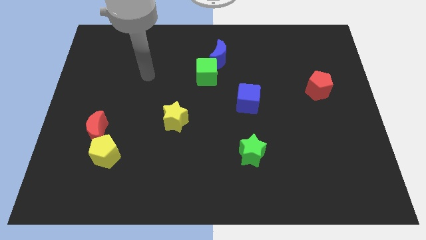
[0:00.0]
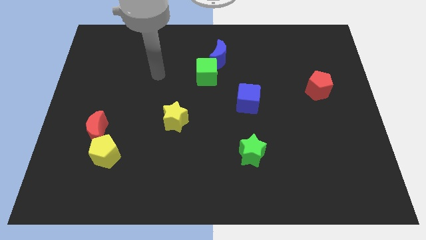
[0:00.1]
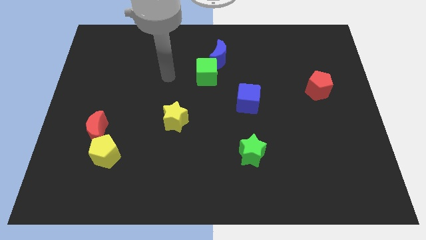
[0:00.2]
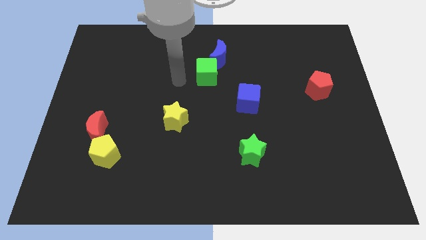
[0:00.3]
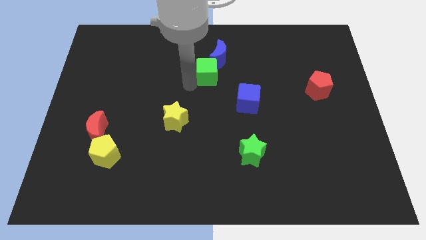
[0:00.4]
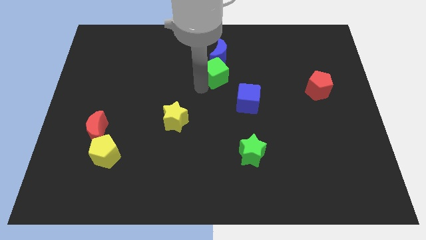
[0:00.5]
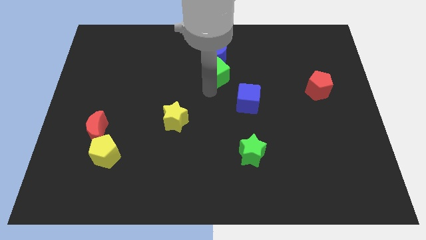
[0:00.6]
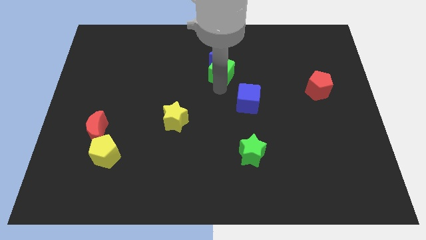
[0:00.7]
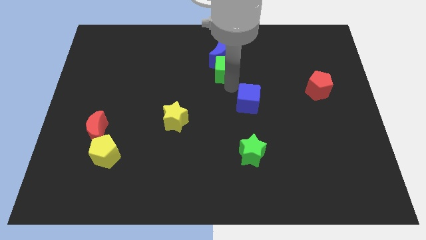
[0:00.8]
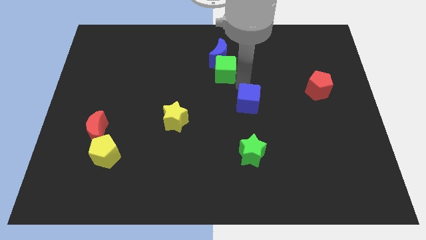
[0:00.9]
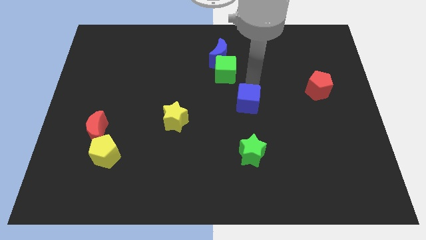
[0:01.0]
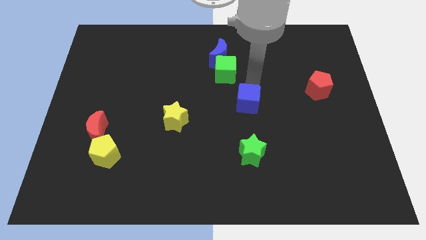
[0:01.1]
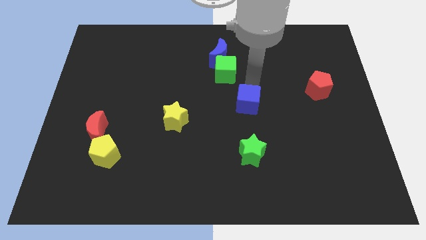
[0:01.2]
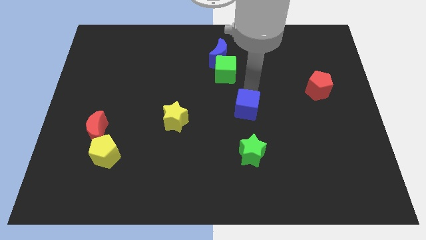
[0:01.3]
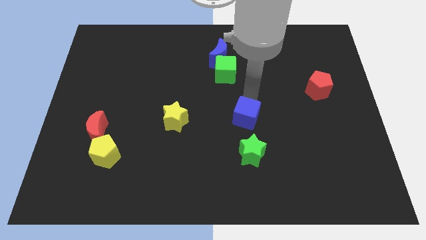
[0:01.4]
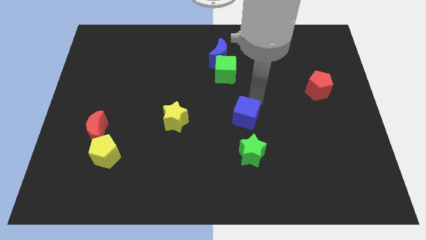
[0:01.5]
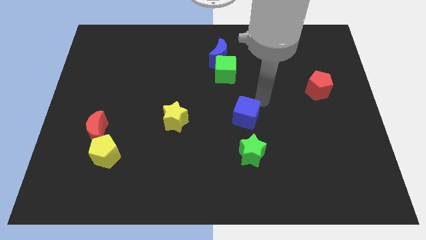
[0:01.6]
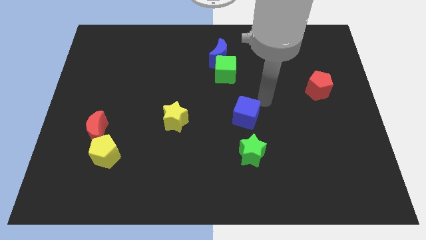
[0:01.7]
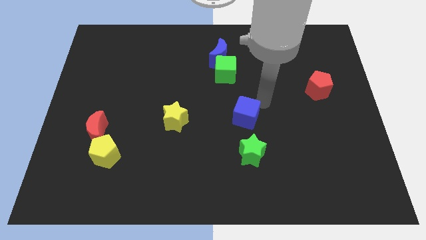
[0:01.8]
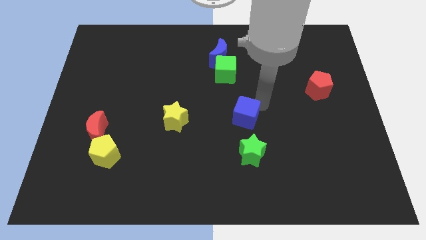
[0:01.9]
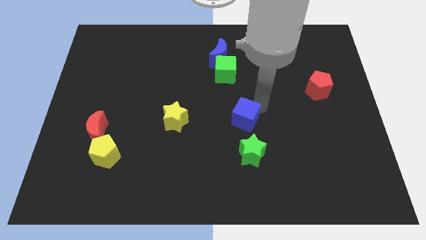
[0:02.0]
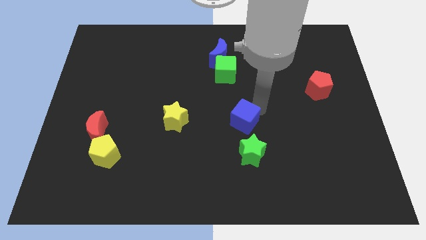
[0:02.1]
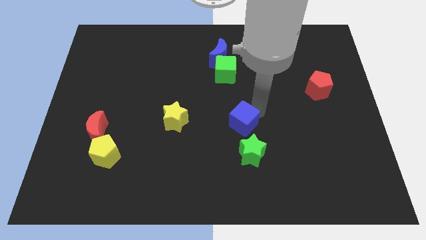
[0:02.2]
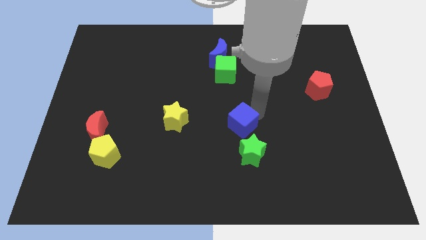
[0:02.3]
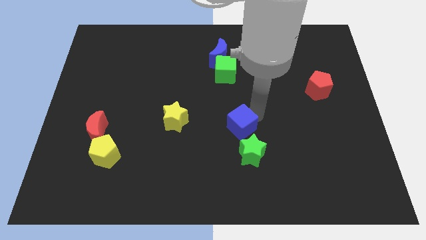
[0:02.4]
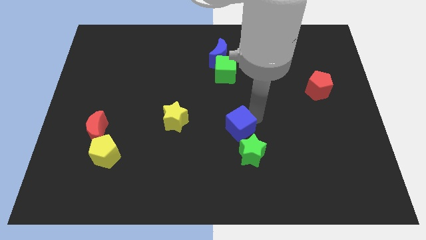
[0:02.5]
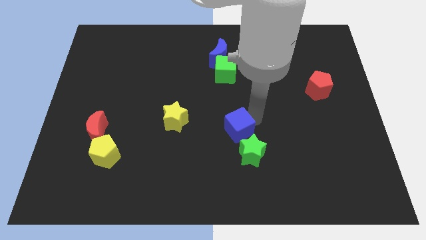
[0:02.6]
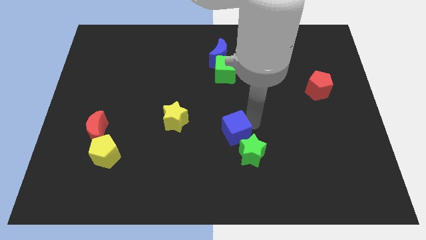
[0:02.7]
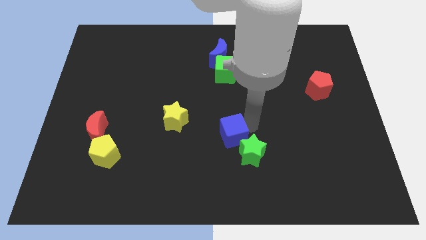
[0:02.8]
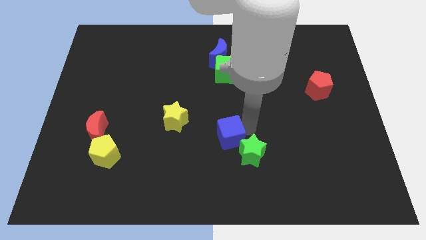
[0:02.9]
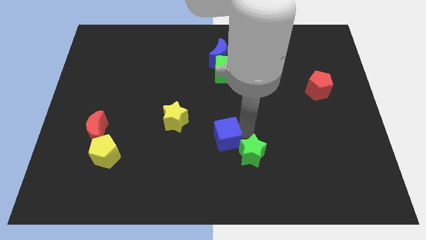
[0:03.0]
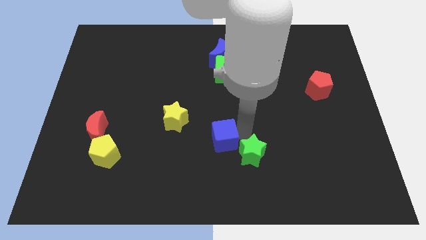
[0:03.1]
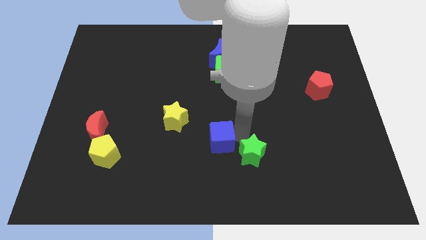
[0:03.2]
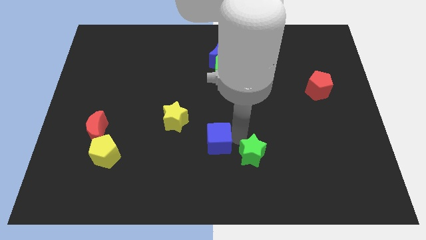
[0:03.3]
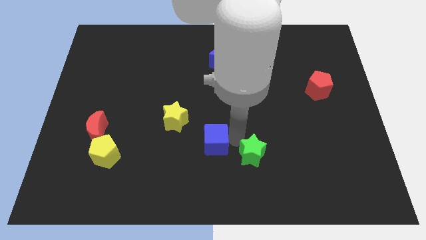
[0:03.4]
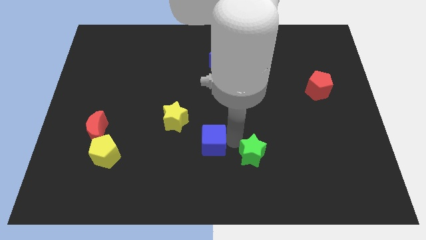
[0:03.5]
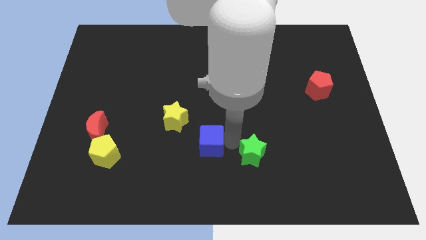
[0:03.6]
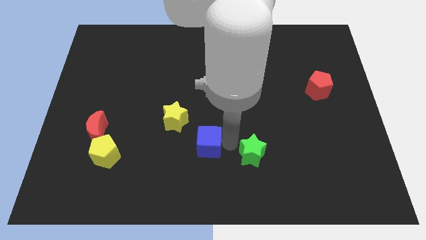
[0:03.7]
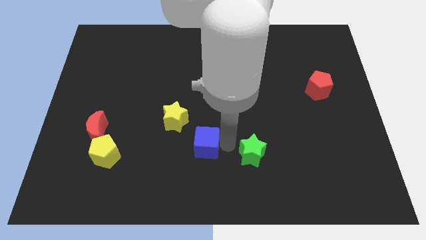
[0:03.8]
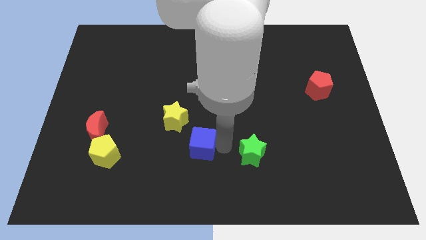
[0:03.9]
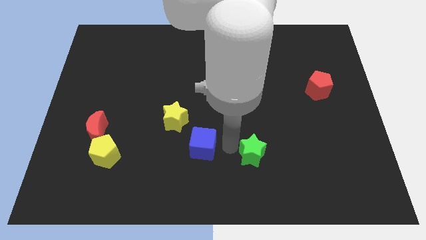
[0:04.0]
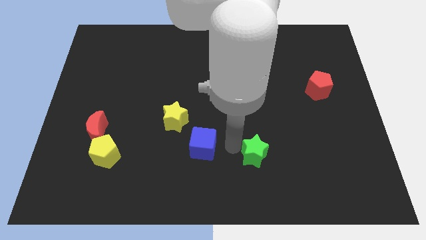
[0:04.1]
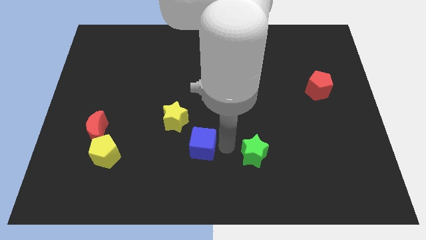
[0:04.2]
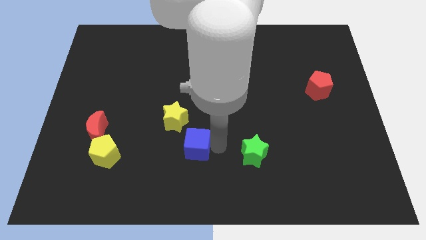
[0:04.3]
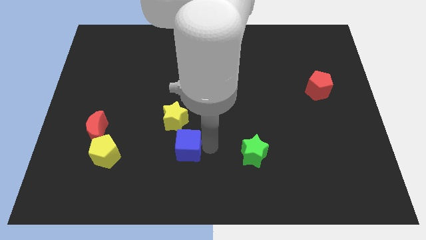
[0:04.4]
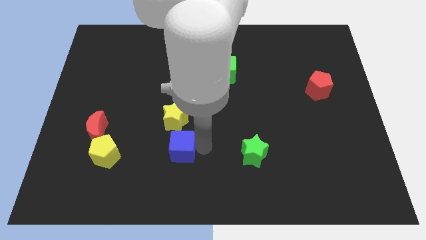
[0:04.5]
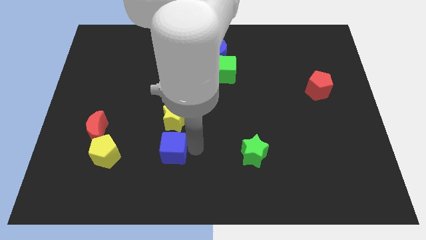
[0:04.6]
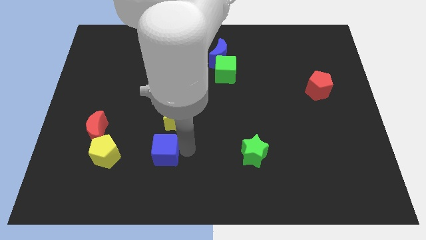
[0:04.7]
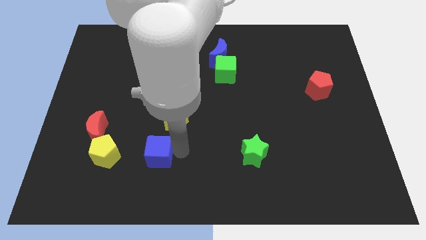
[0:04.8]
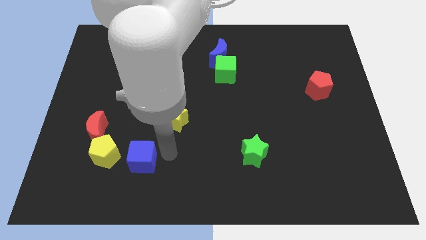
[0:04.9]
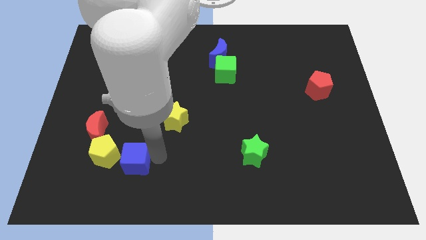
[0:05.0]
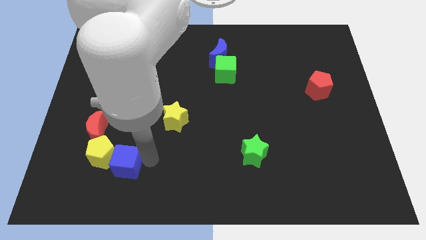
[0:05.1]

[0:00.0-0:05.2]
slide the blue cube close to the yellow pentagon

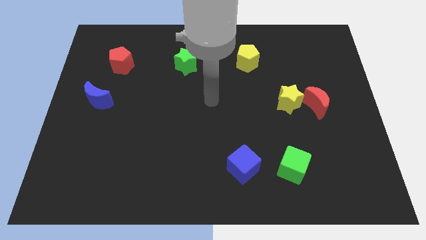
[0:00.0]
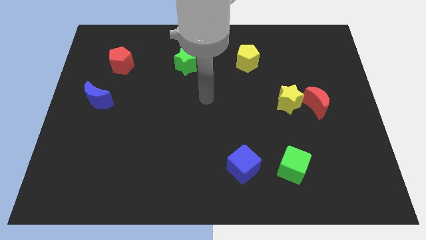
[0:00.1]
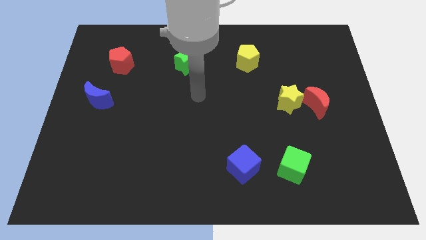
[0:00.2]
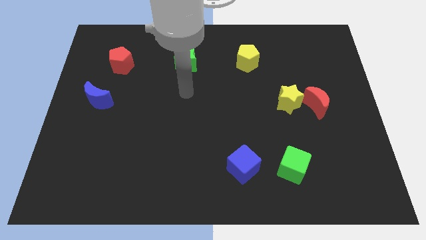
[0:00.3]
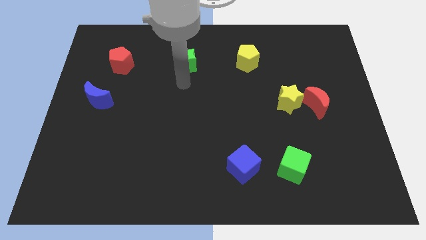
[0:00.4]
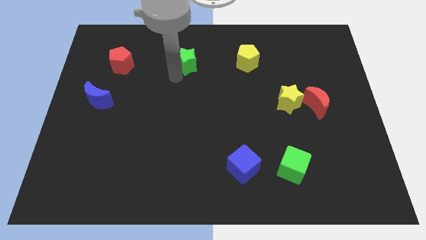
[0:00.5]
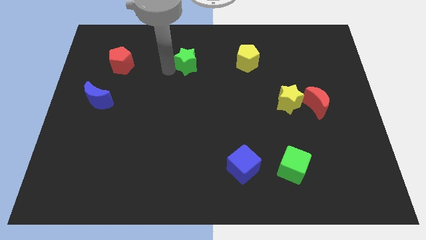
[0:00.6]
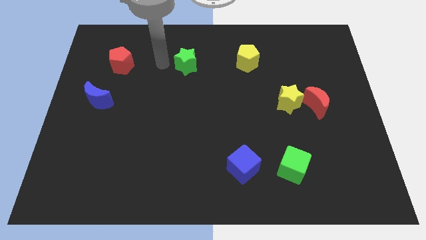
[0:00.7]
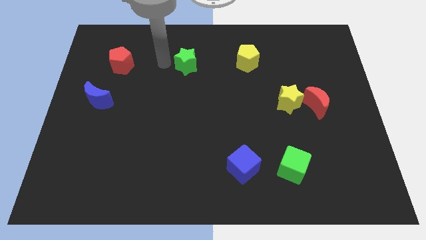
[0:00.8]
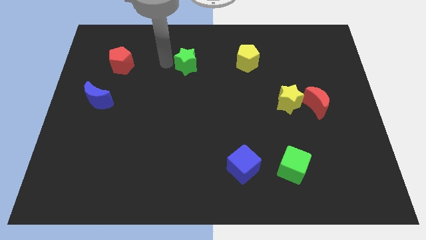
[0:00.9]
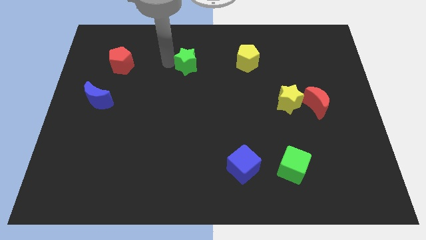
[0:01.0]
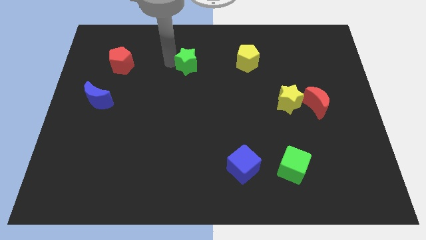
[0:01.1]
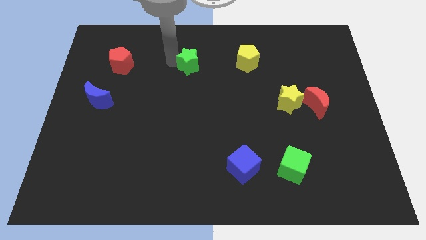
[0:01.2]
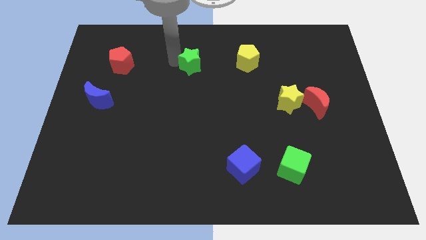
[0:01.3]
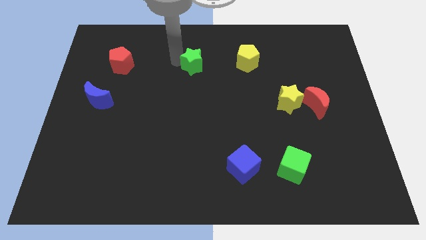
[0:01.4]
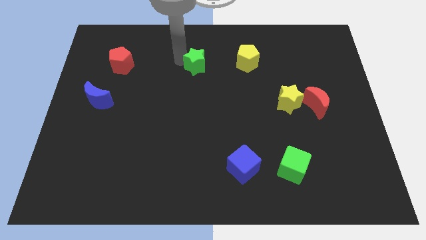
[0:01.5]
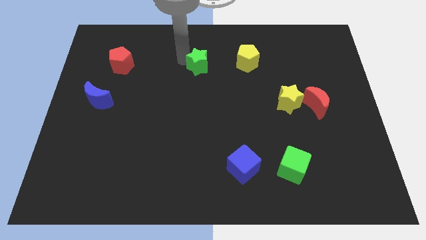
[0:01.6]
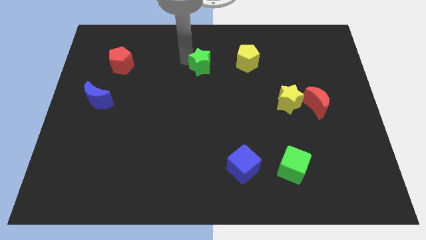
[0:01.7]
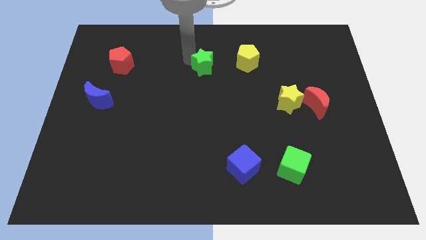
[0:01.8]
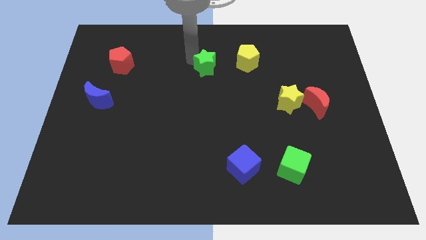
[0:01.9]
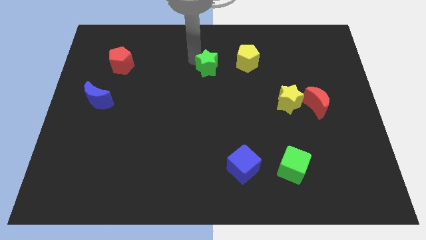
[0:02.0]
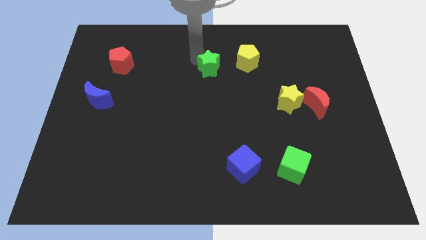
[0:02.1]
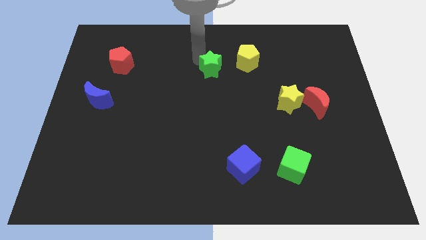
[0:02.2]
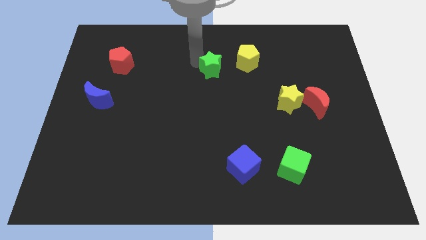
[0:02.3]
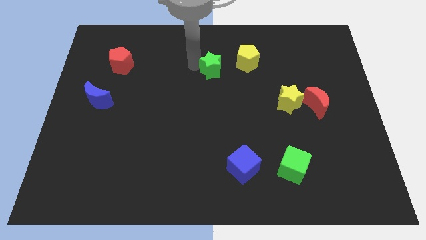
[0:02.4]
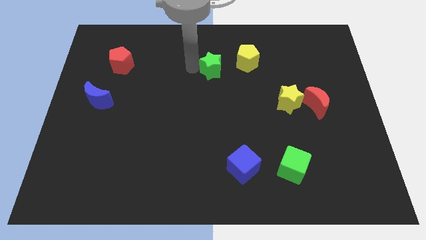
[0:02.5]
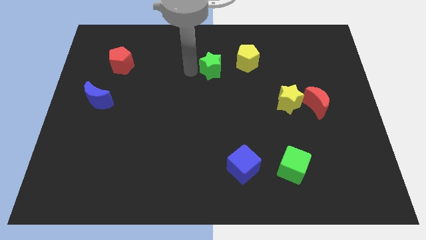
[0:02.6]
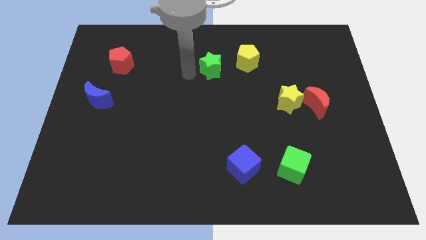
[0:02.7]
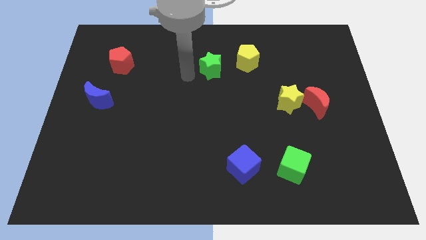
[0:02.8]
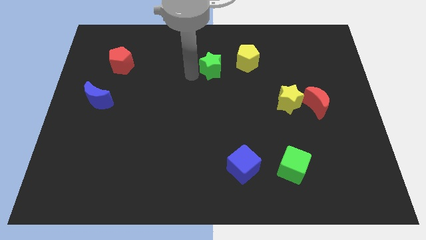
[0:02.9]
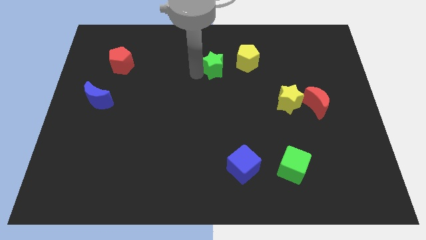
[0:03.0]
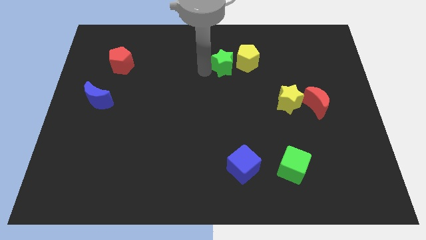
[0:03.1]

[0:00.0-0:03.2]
slide the green star towards the yellow pentagon
